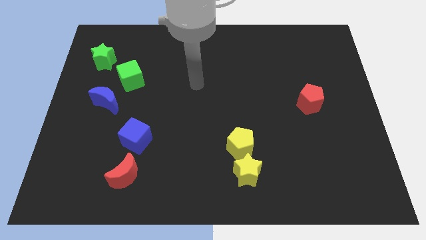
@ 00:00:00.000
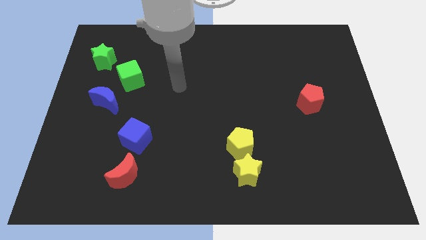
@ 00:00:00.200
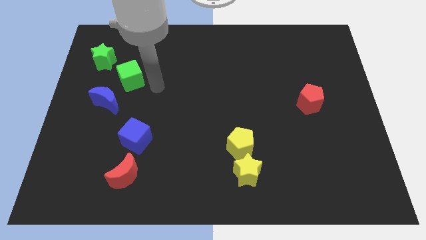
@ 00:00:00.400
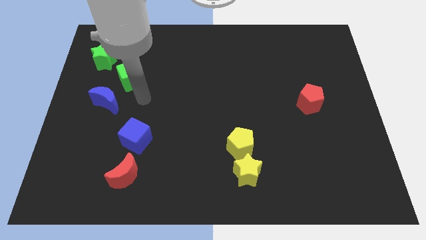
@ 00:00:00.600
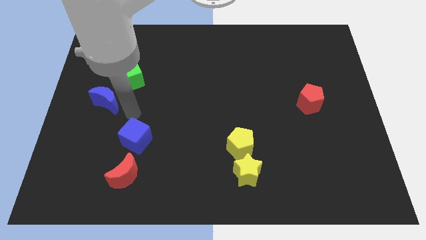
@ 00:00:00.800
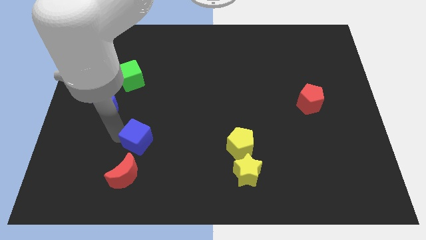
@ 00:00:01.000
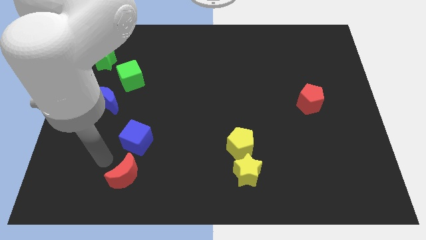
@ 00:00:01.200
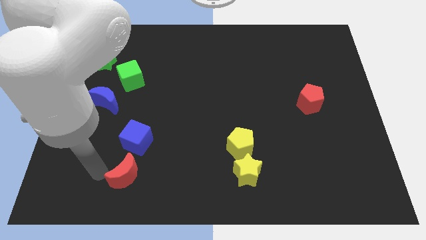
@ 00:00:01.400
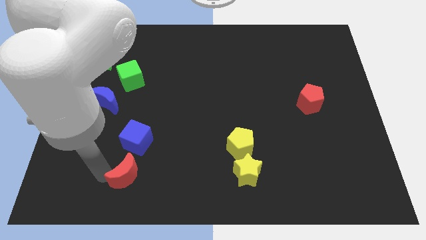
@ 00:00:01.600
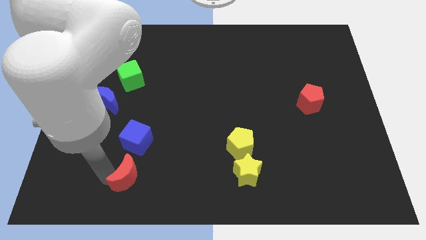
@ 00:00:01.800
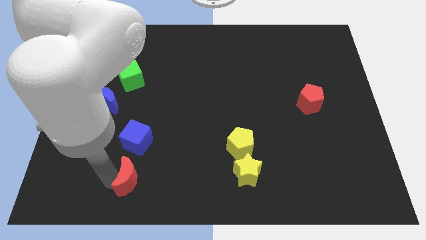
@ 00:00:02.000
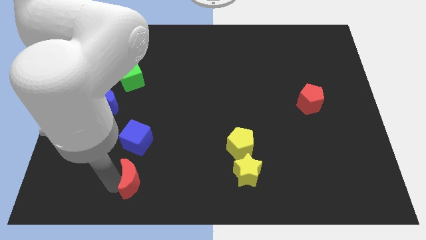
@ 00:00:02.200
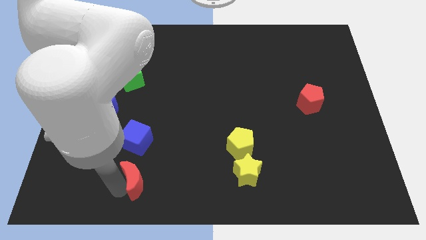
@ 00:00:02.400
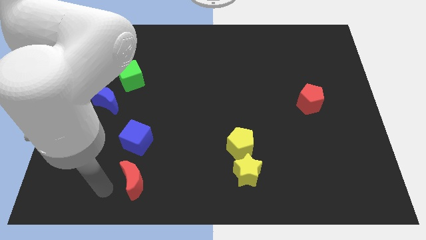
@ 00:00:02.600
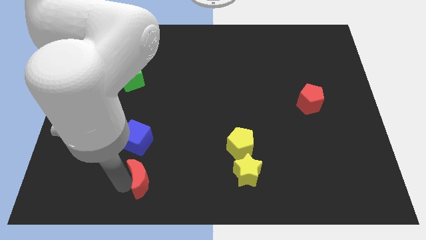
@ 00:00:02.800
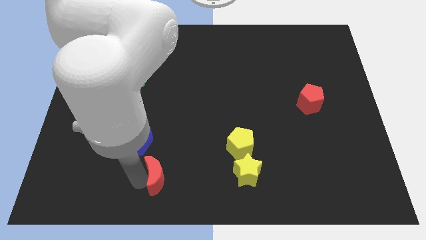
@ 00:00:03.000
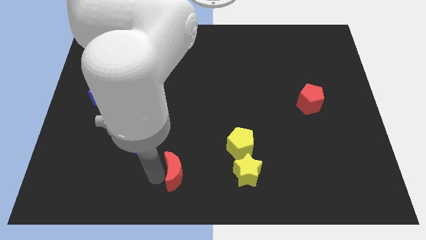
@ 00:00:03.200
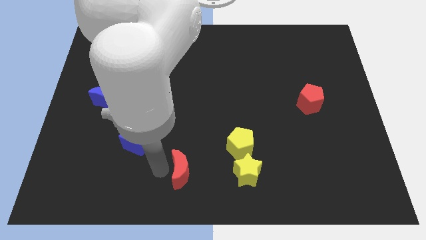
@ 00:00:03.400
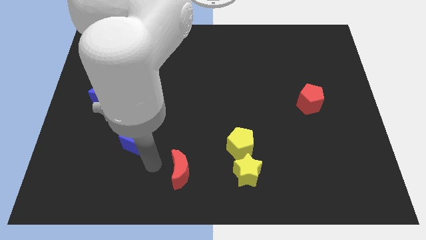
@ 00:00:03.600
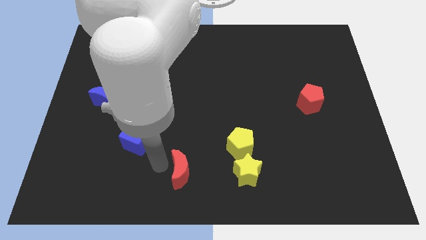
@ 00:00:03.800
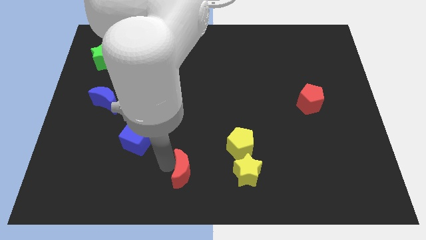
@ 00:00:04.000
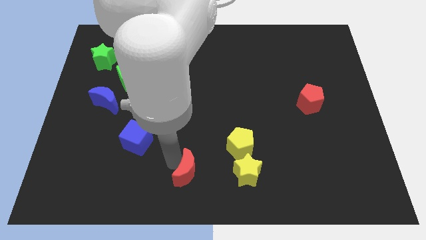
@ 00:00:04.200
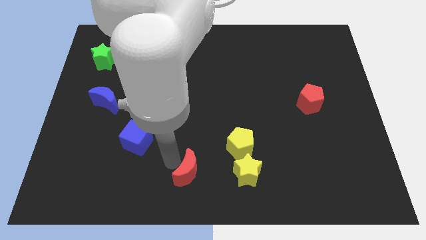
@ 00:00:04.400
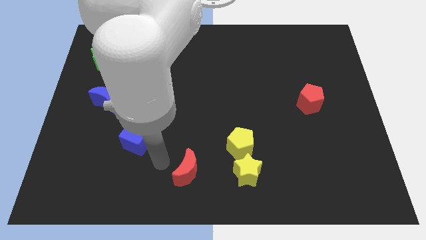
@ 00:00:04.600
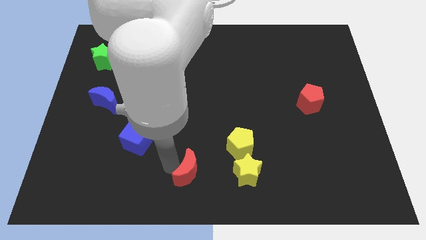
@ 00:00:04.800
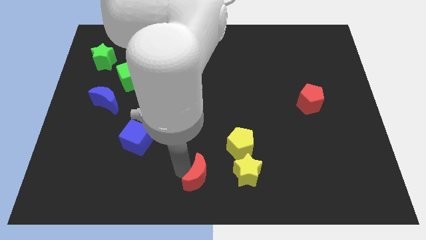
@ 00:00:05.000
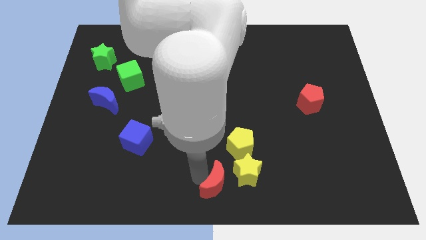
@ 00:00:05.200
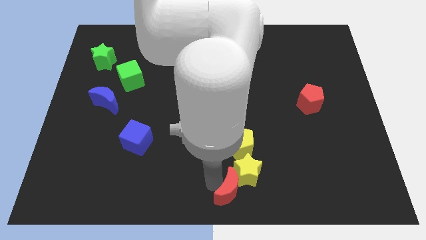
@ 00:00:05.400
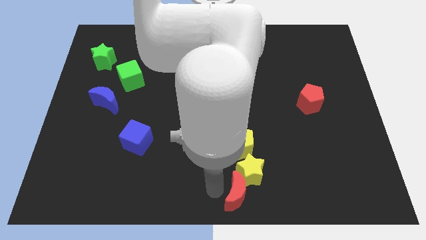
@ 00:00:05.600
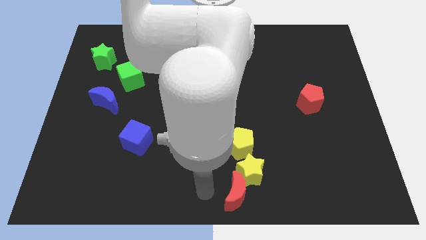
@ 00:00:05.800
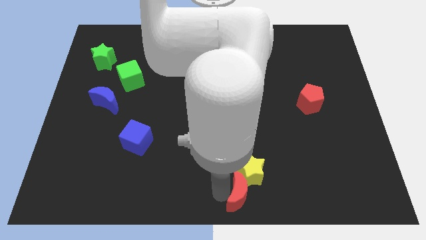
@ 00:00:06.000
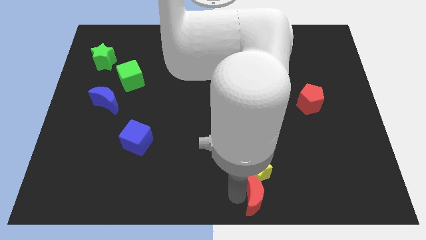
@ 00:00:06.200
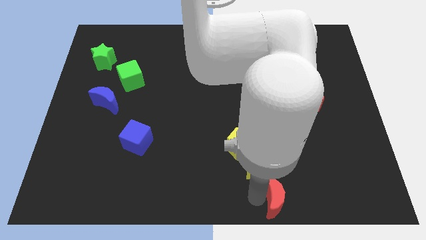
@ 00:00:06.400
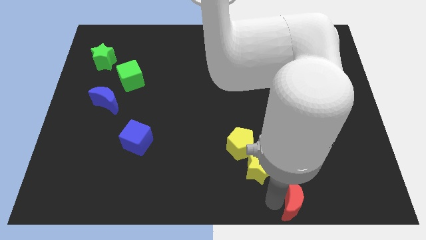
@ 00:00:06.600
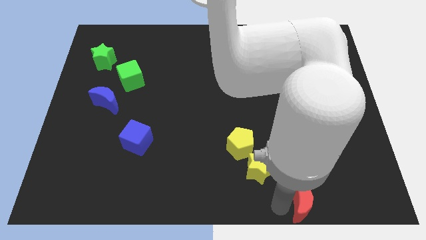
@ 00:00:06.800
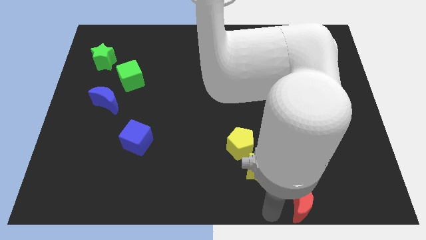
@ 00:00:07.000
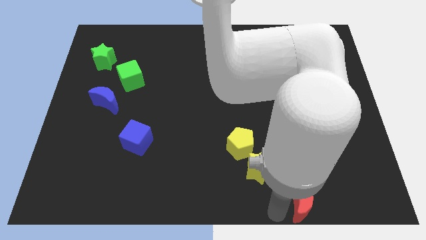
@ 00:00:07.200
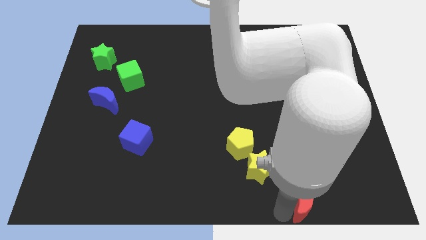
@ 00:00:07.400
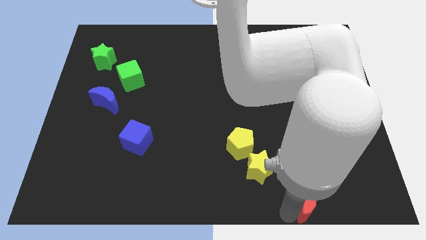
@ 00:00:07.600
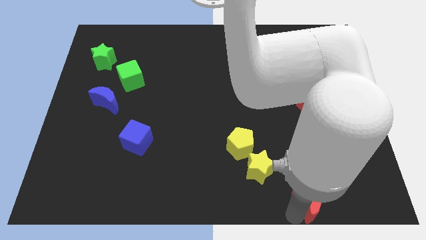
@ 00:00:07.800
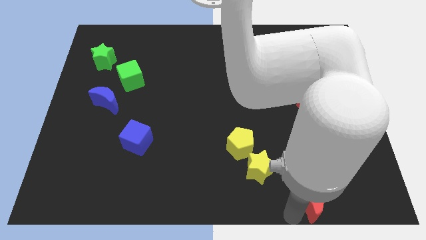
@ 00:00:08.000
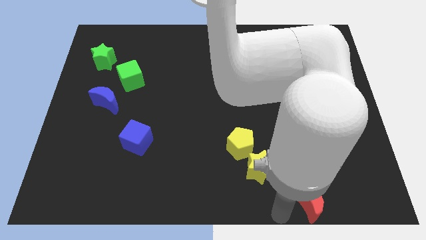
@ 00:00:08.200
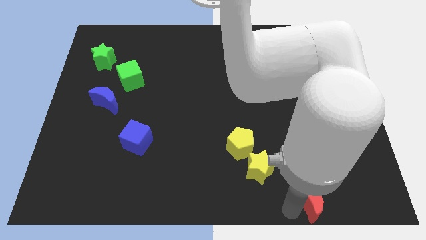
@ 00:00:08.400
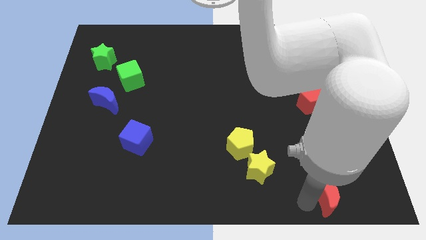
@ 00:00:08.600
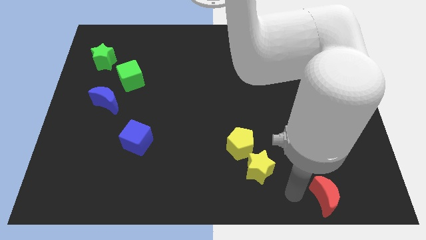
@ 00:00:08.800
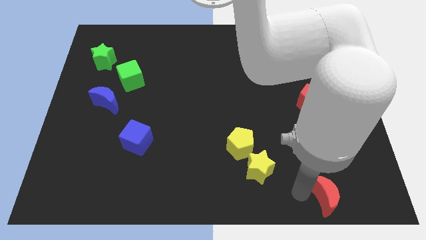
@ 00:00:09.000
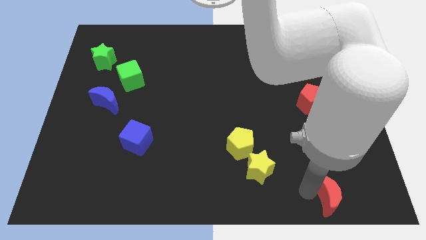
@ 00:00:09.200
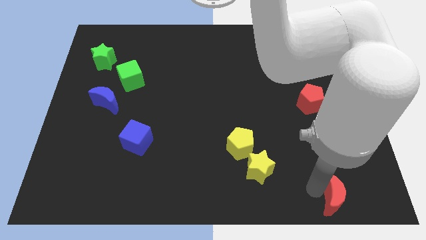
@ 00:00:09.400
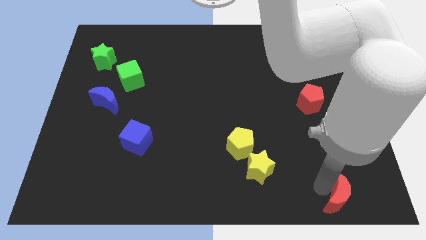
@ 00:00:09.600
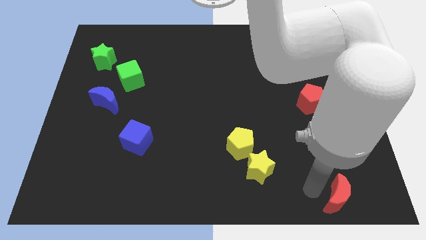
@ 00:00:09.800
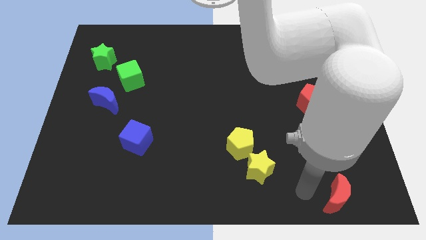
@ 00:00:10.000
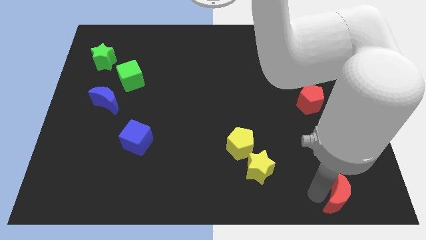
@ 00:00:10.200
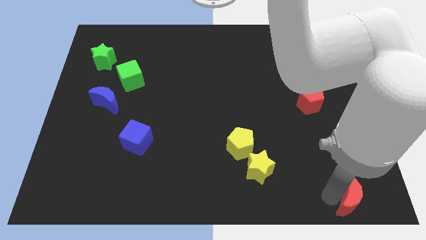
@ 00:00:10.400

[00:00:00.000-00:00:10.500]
push the red moon to the bottom right corner

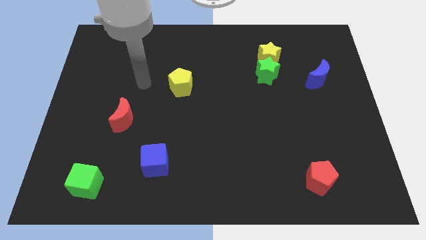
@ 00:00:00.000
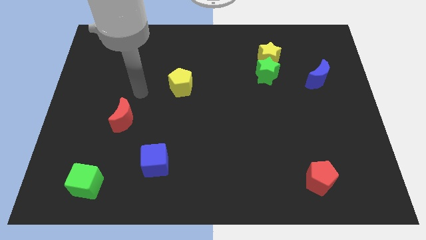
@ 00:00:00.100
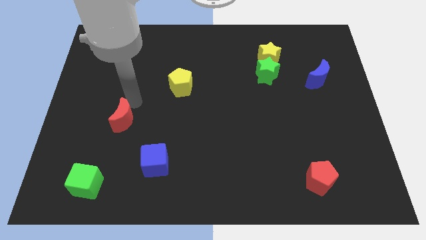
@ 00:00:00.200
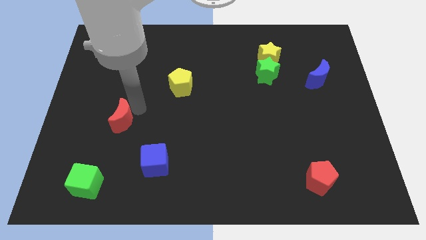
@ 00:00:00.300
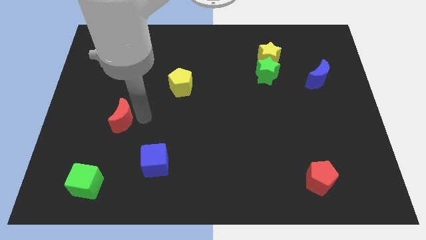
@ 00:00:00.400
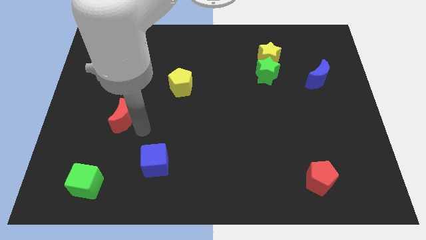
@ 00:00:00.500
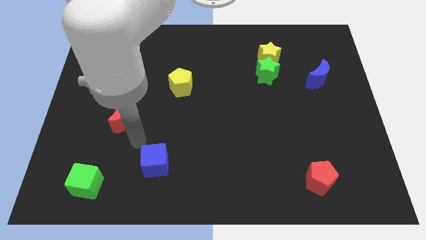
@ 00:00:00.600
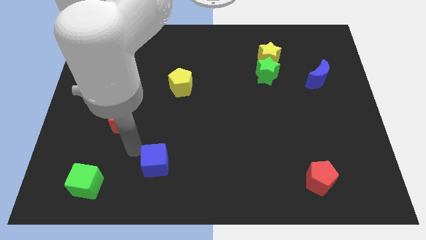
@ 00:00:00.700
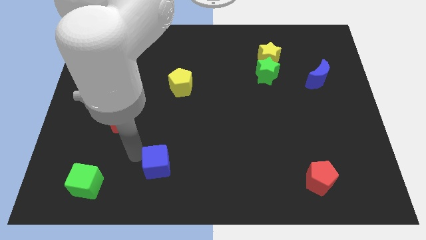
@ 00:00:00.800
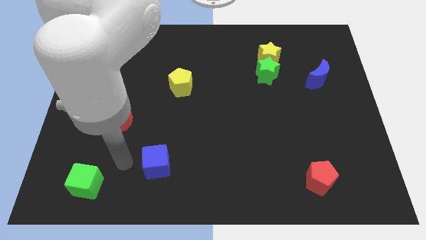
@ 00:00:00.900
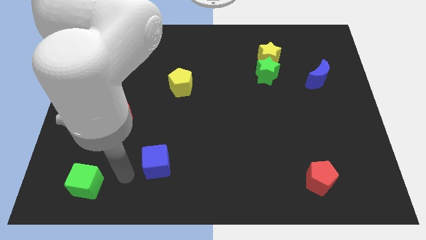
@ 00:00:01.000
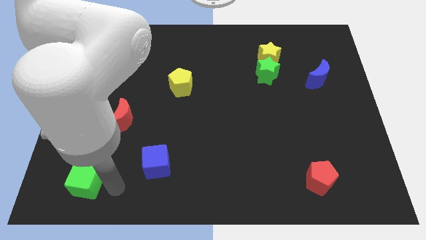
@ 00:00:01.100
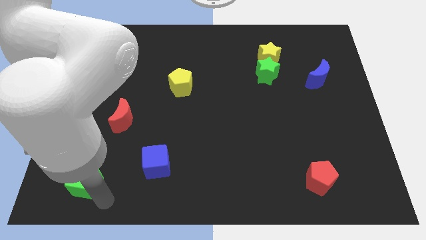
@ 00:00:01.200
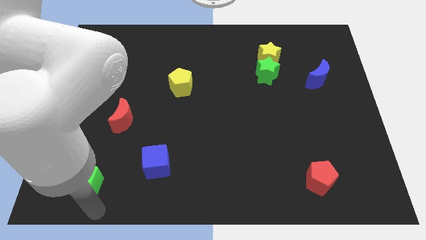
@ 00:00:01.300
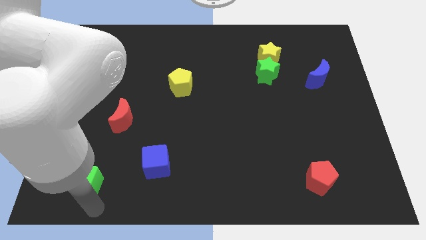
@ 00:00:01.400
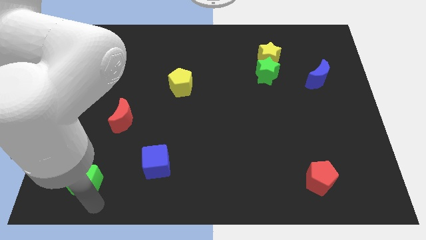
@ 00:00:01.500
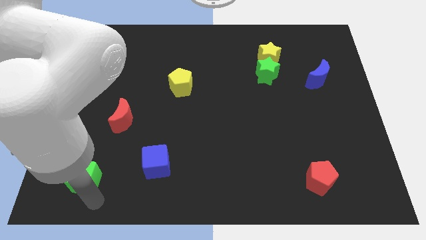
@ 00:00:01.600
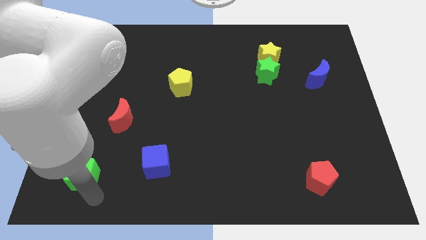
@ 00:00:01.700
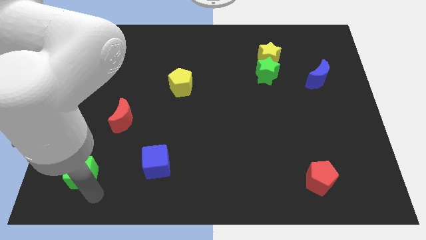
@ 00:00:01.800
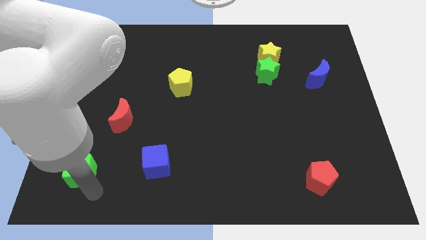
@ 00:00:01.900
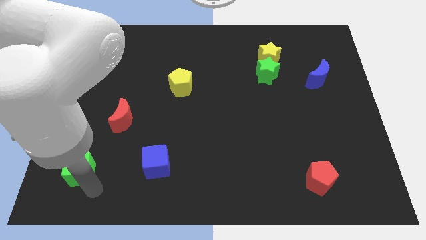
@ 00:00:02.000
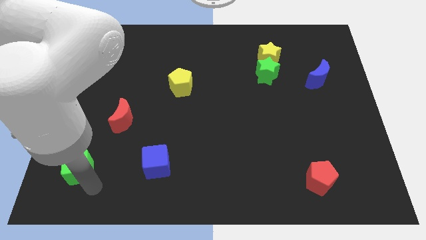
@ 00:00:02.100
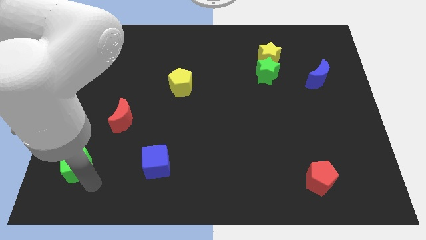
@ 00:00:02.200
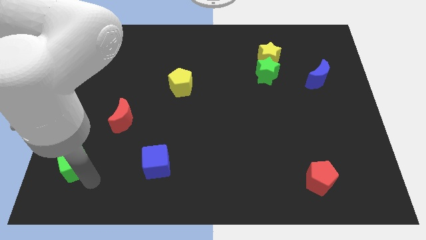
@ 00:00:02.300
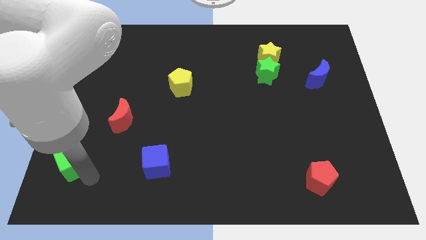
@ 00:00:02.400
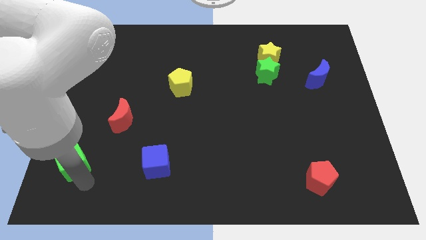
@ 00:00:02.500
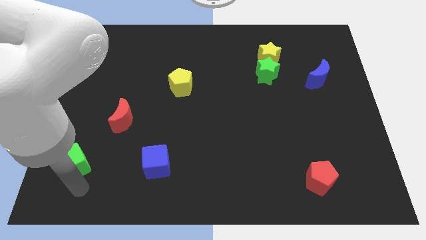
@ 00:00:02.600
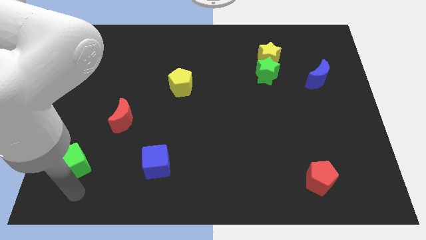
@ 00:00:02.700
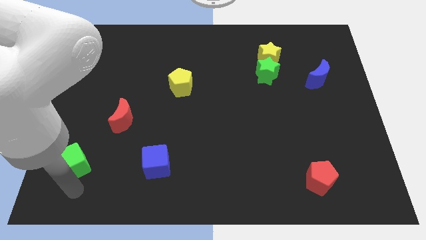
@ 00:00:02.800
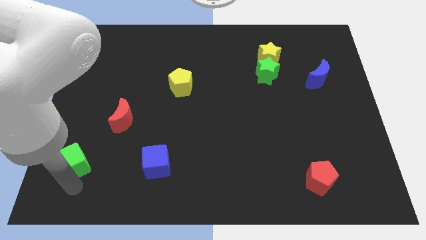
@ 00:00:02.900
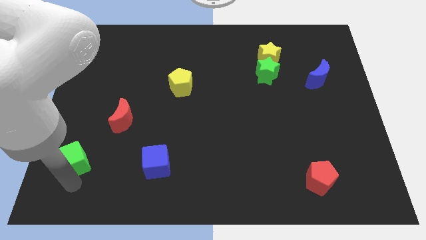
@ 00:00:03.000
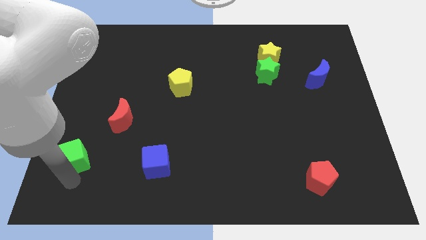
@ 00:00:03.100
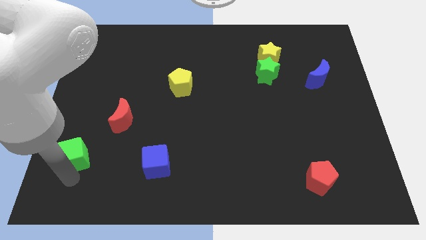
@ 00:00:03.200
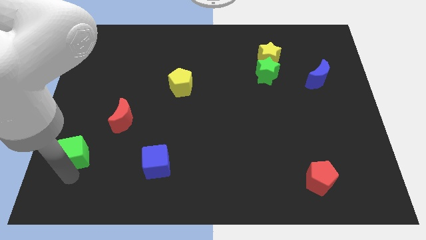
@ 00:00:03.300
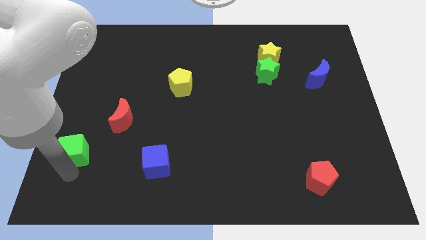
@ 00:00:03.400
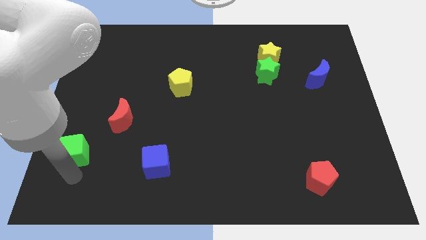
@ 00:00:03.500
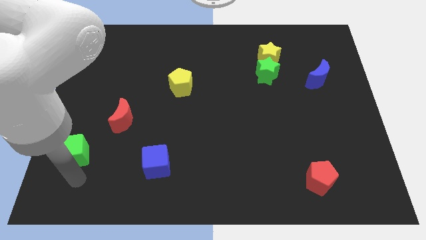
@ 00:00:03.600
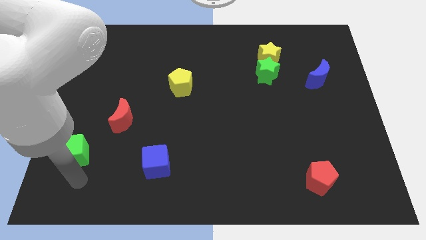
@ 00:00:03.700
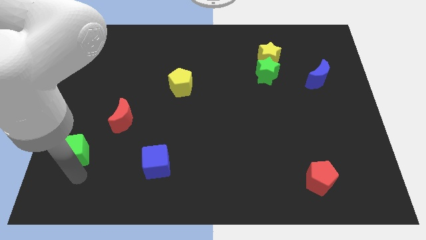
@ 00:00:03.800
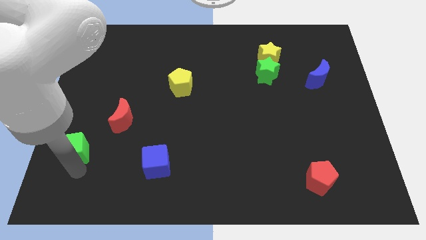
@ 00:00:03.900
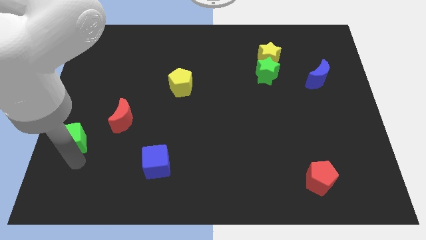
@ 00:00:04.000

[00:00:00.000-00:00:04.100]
put the green cube to the center left
